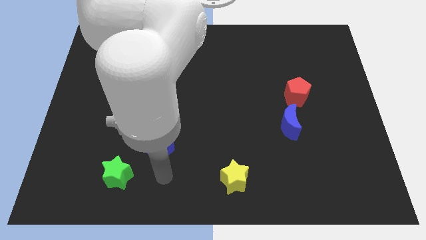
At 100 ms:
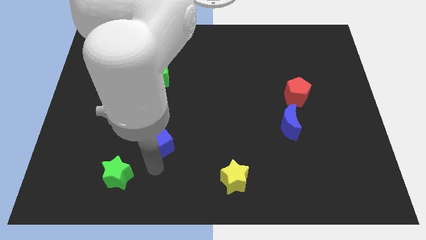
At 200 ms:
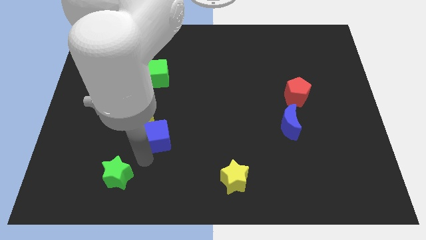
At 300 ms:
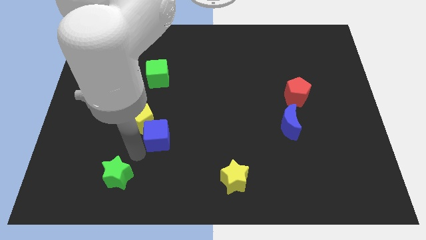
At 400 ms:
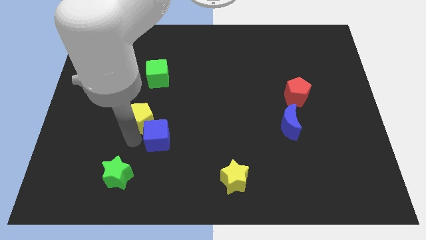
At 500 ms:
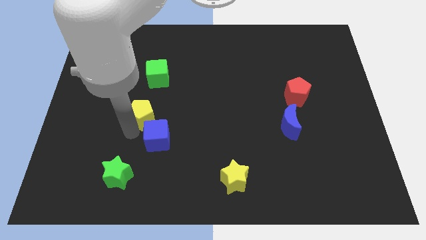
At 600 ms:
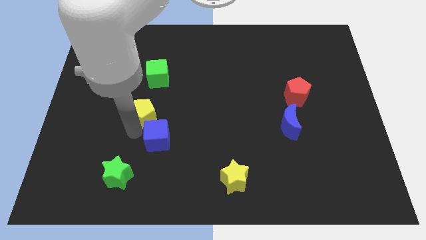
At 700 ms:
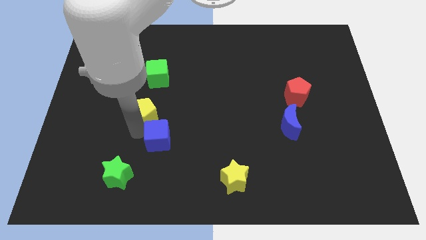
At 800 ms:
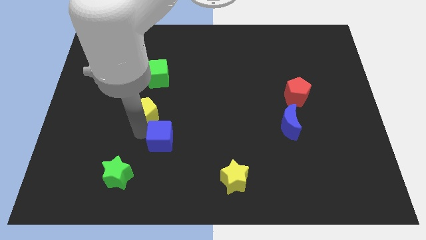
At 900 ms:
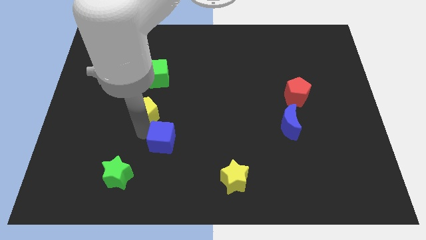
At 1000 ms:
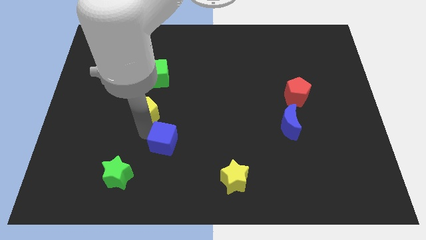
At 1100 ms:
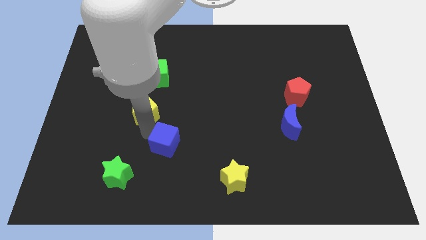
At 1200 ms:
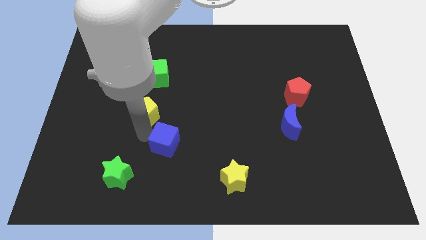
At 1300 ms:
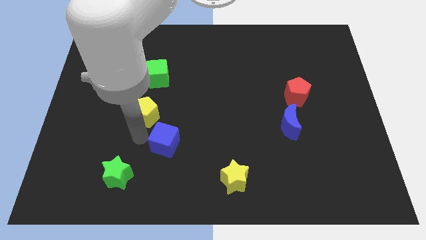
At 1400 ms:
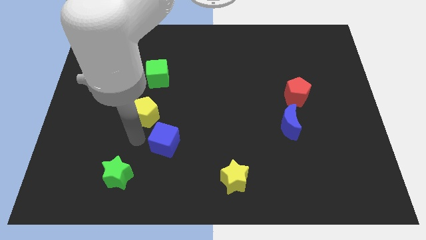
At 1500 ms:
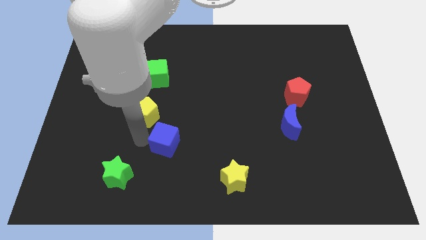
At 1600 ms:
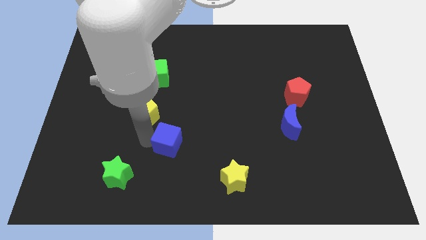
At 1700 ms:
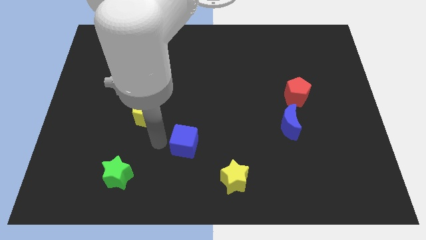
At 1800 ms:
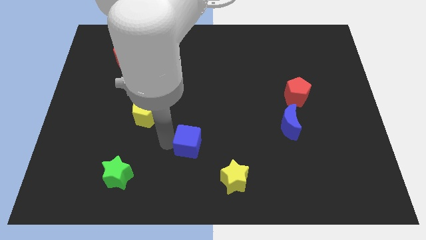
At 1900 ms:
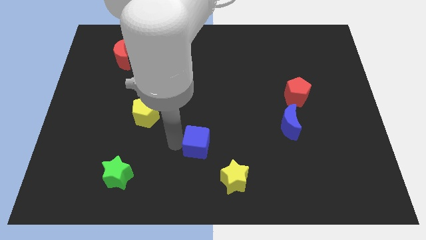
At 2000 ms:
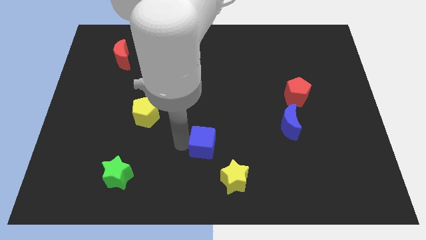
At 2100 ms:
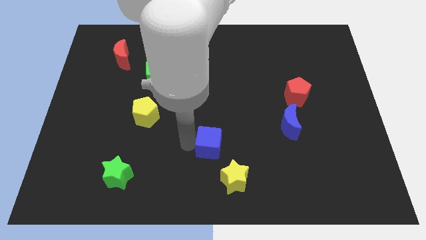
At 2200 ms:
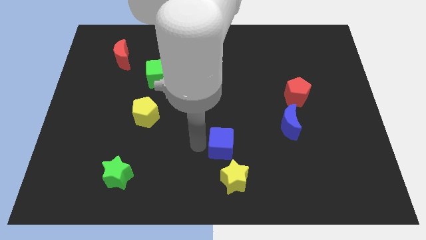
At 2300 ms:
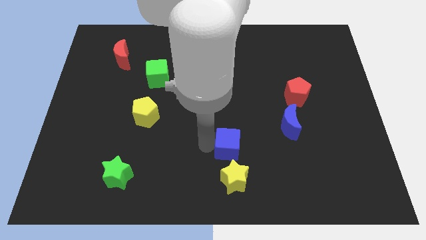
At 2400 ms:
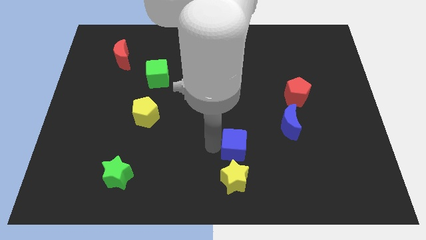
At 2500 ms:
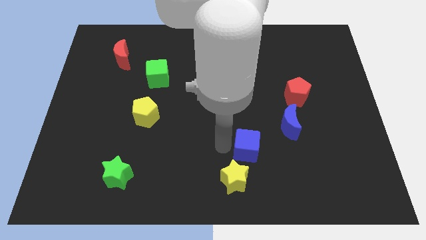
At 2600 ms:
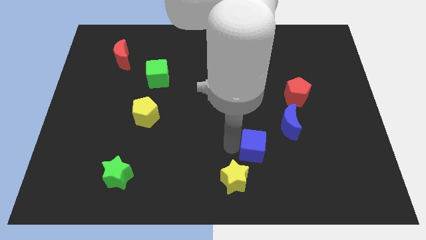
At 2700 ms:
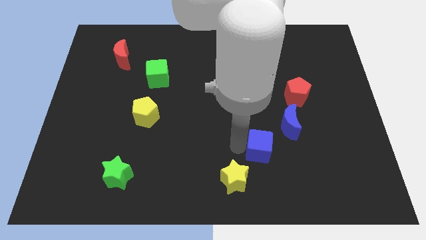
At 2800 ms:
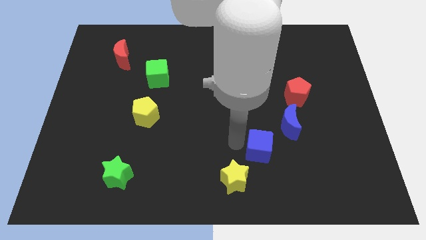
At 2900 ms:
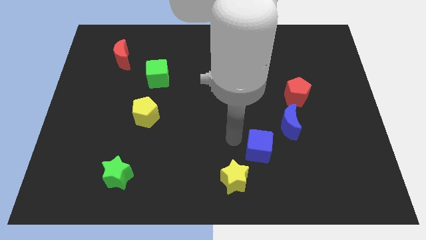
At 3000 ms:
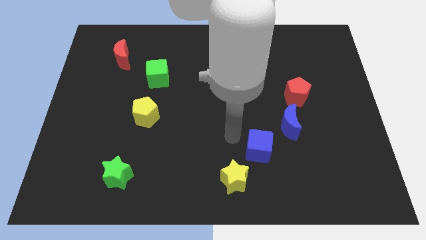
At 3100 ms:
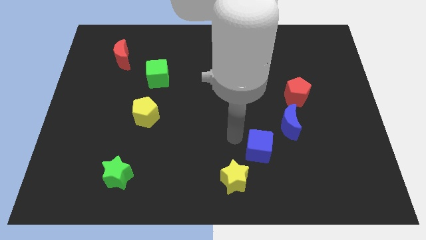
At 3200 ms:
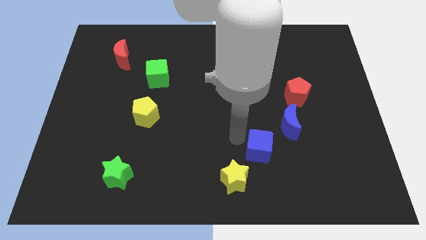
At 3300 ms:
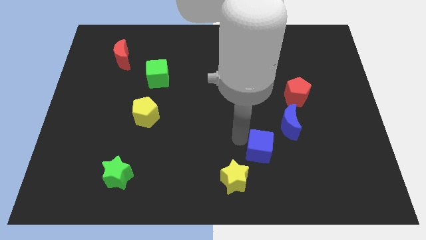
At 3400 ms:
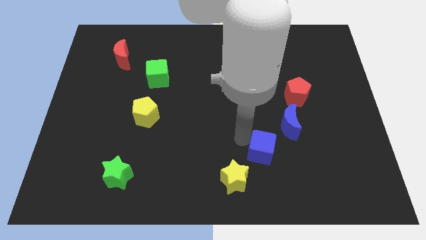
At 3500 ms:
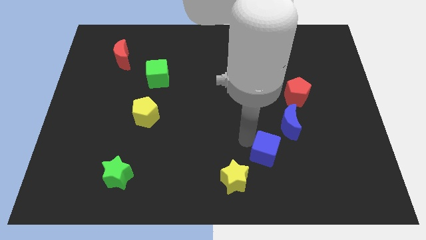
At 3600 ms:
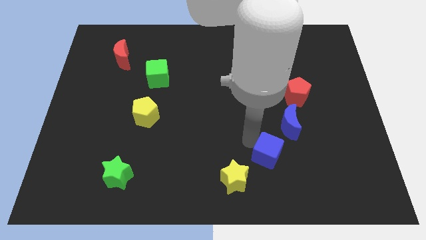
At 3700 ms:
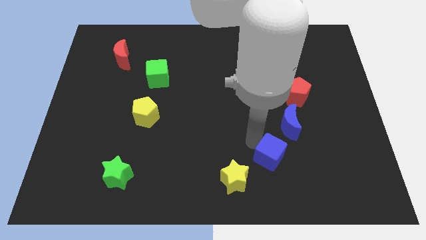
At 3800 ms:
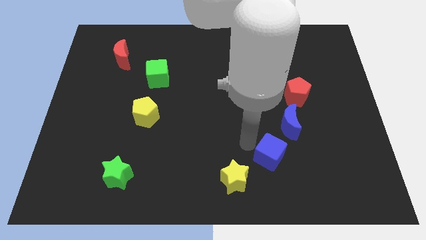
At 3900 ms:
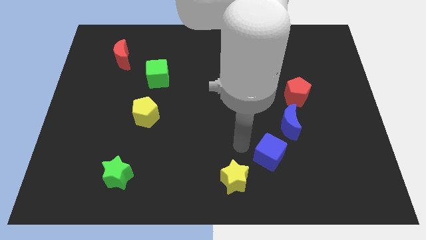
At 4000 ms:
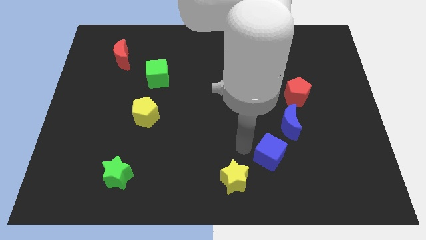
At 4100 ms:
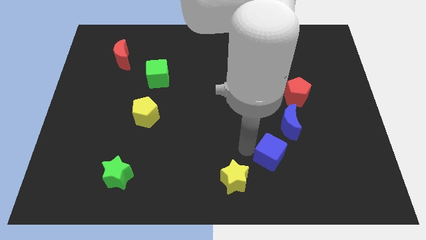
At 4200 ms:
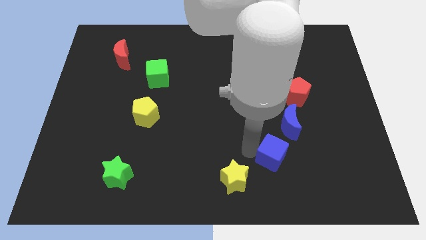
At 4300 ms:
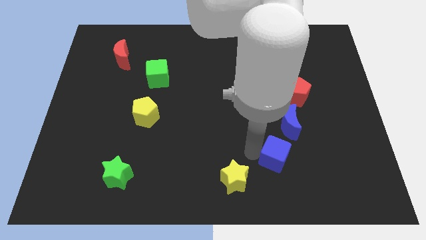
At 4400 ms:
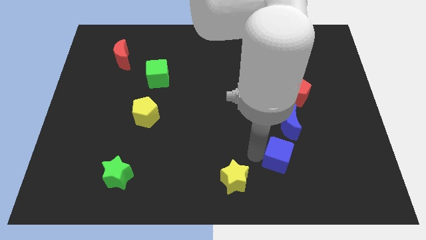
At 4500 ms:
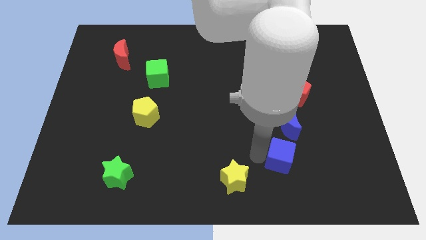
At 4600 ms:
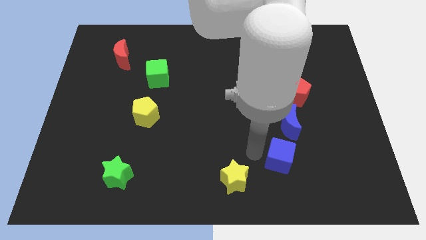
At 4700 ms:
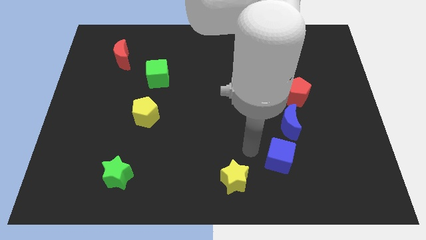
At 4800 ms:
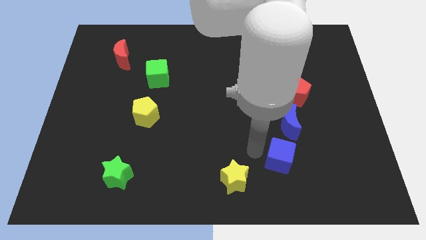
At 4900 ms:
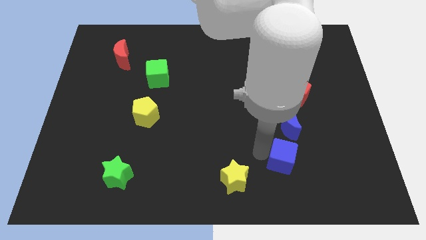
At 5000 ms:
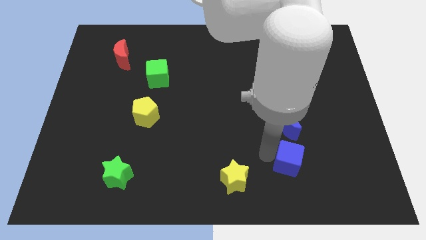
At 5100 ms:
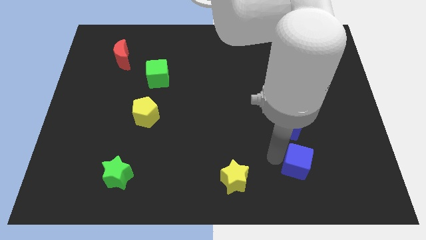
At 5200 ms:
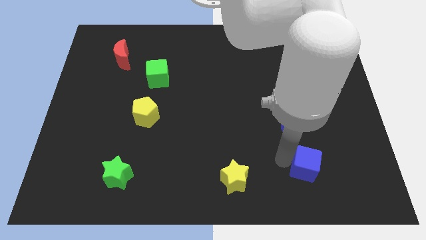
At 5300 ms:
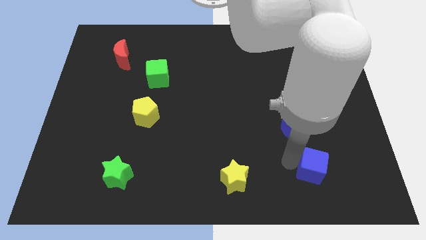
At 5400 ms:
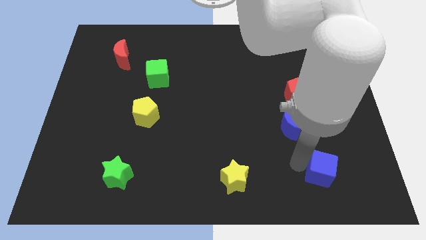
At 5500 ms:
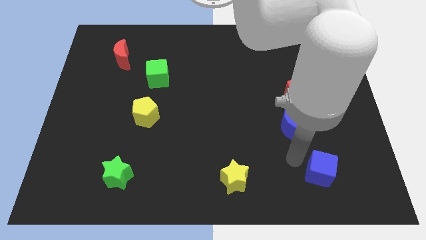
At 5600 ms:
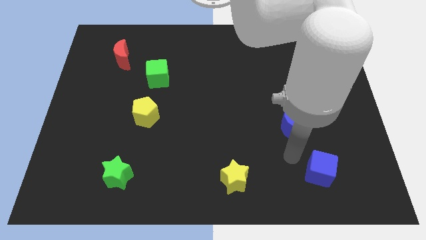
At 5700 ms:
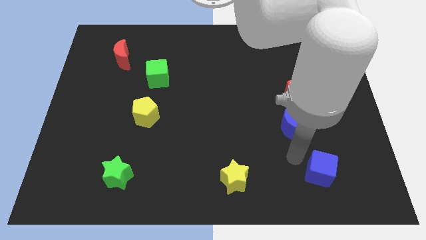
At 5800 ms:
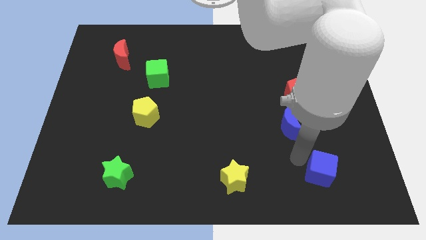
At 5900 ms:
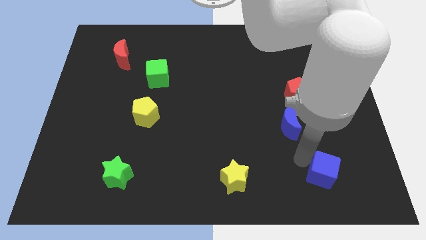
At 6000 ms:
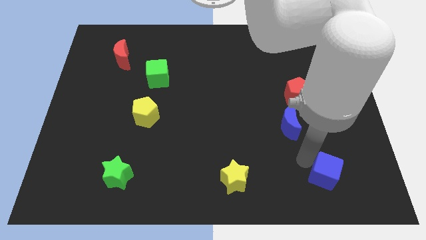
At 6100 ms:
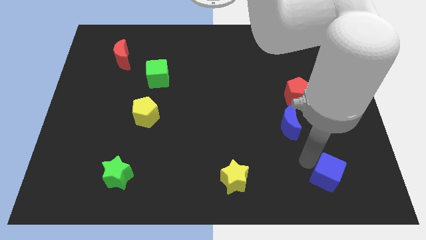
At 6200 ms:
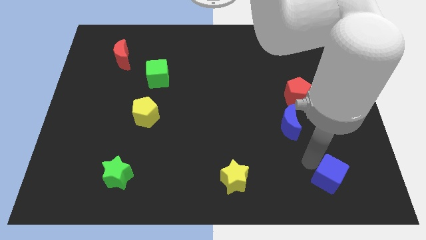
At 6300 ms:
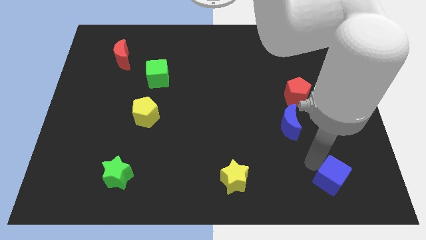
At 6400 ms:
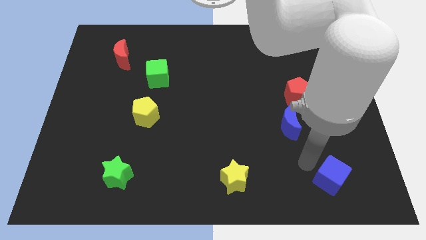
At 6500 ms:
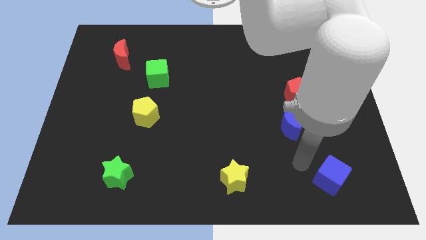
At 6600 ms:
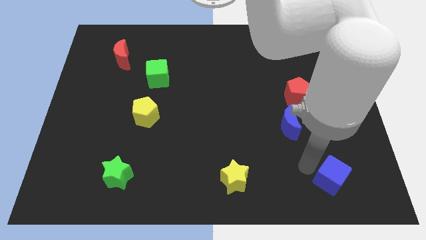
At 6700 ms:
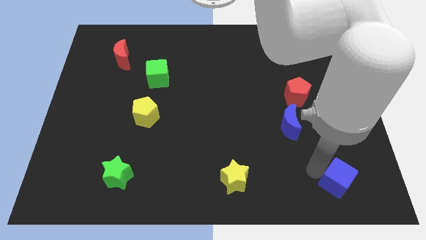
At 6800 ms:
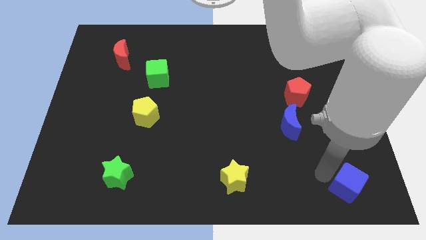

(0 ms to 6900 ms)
move the blue cube to the lower right corner
